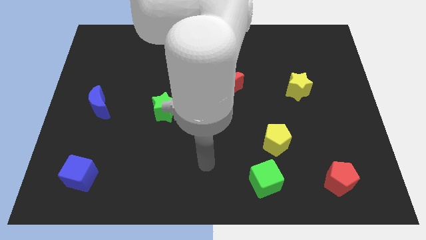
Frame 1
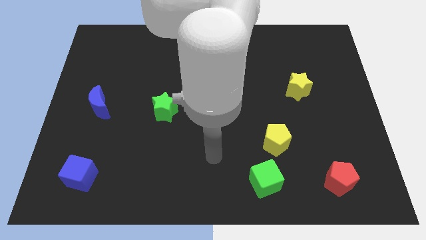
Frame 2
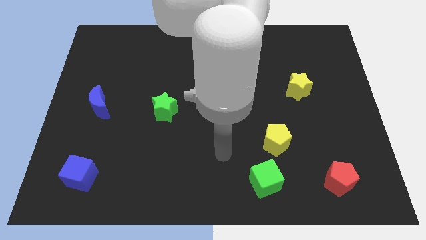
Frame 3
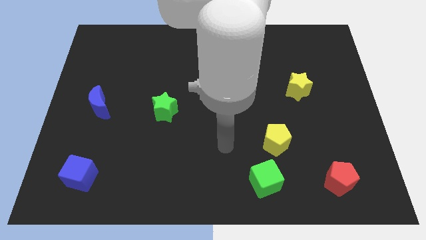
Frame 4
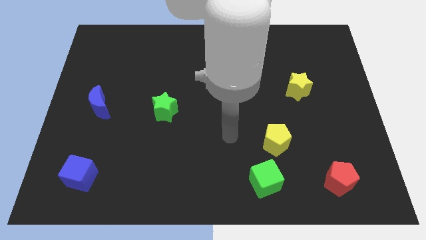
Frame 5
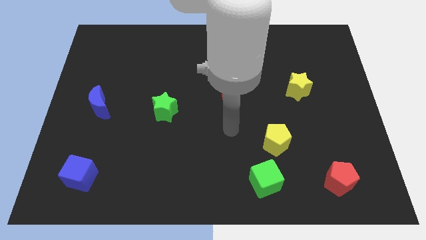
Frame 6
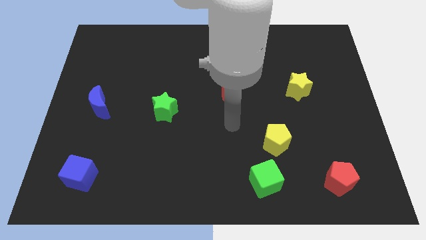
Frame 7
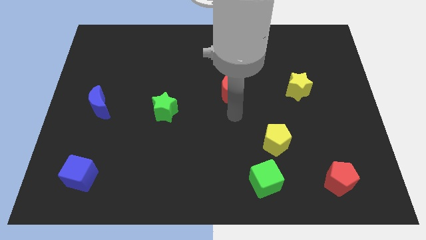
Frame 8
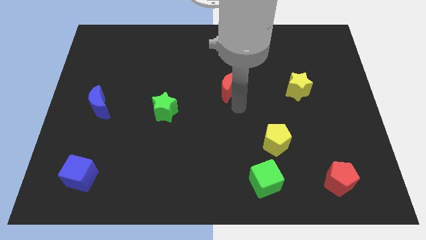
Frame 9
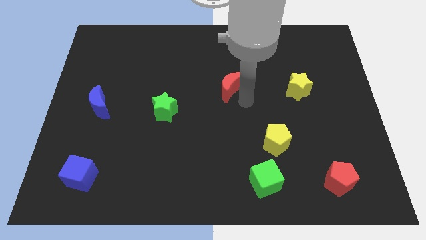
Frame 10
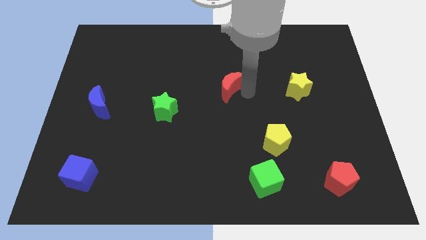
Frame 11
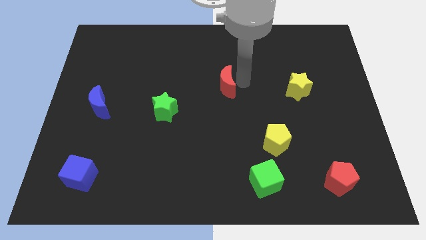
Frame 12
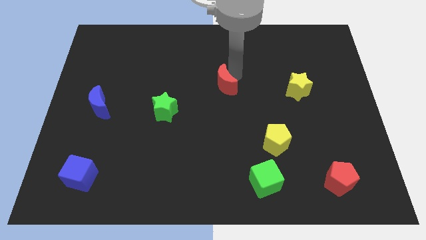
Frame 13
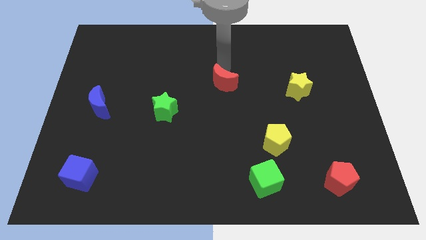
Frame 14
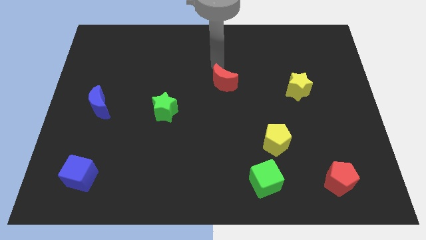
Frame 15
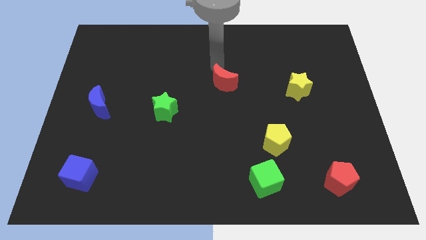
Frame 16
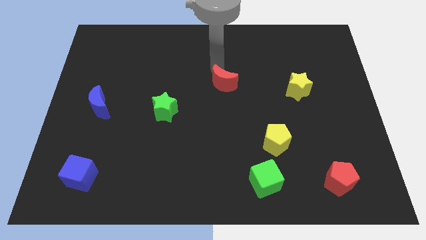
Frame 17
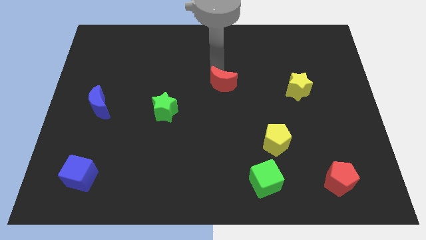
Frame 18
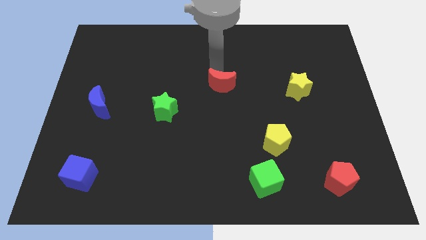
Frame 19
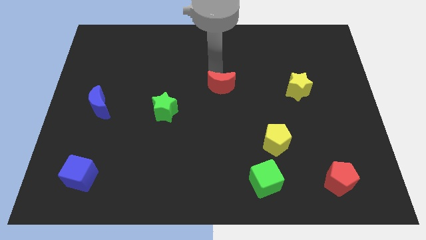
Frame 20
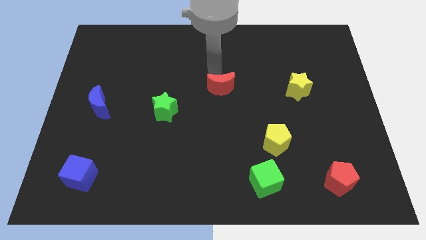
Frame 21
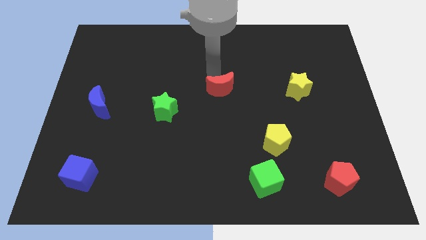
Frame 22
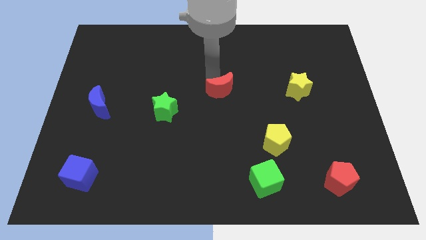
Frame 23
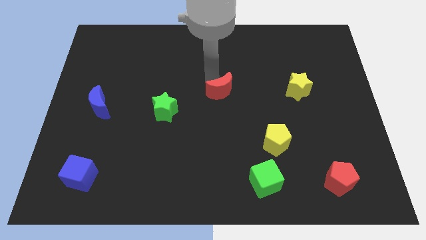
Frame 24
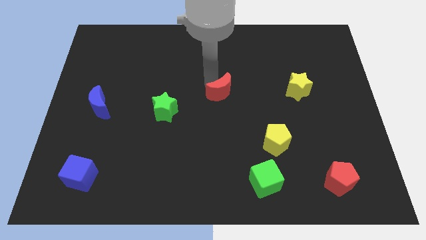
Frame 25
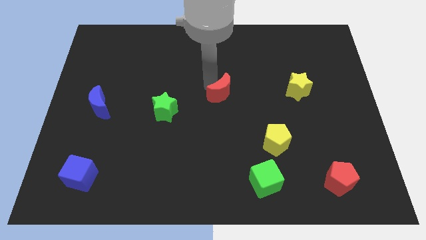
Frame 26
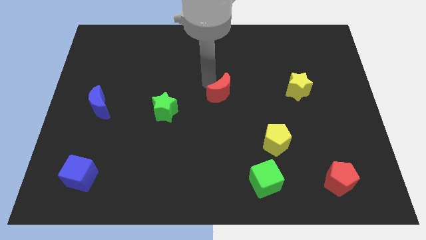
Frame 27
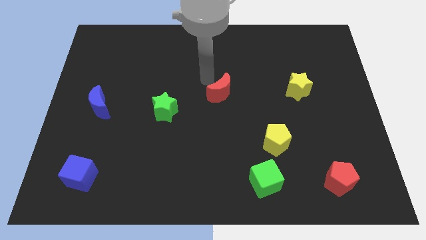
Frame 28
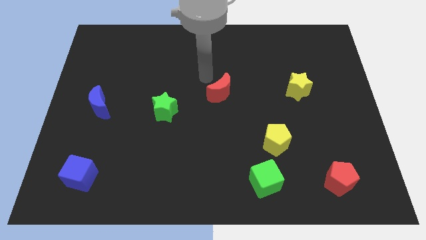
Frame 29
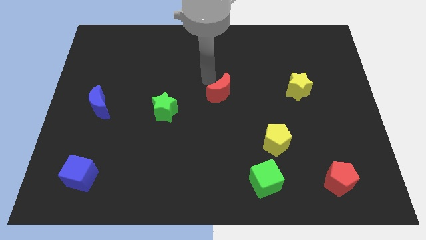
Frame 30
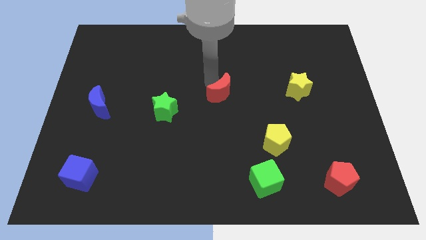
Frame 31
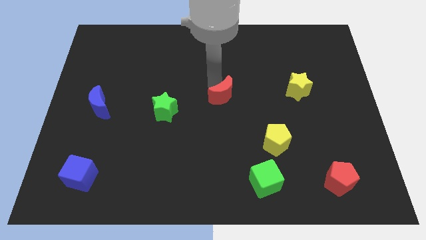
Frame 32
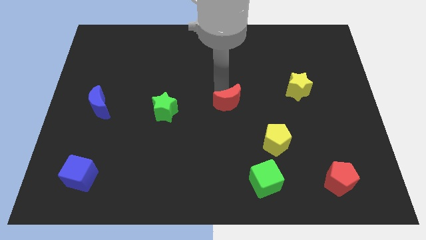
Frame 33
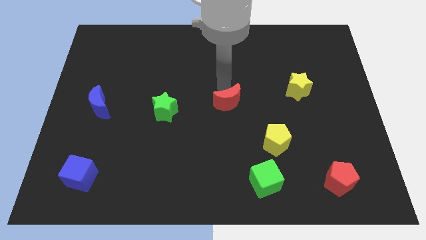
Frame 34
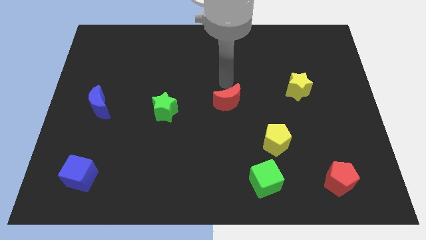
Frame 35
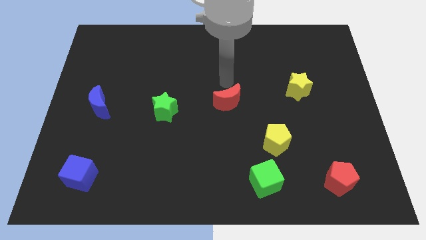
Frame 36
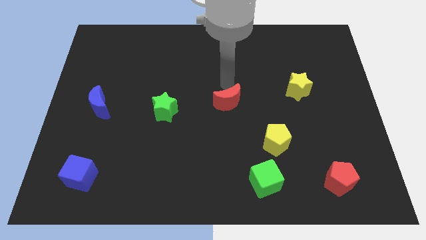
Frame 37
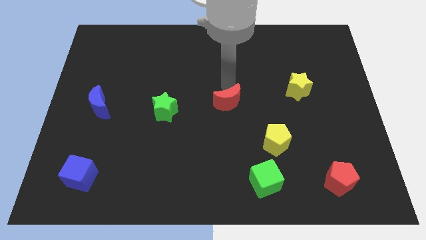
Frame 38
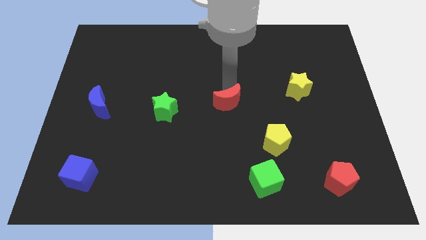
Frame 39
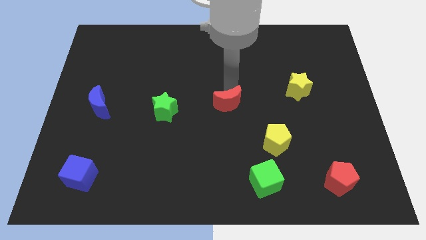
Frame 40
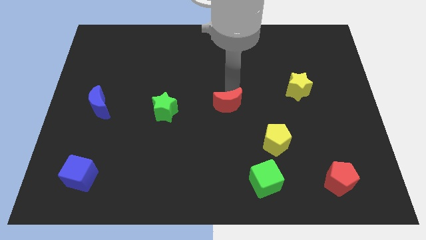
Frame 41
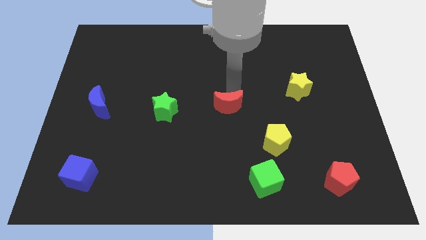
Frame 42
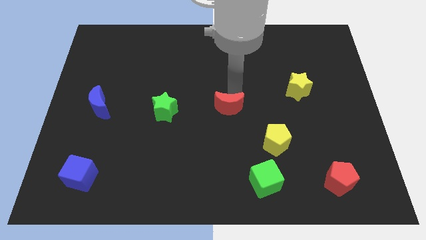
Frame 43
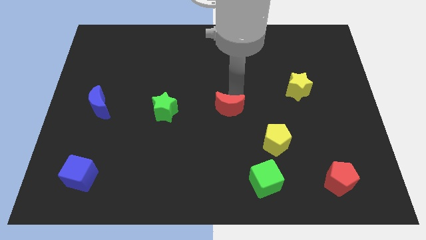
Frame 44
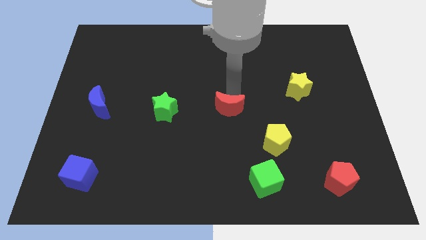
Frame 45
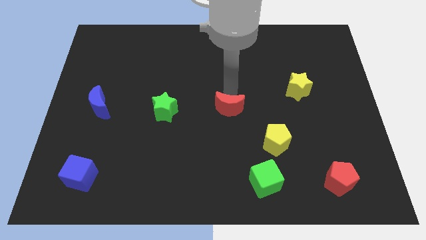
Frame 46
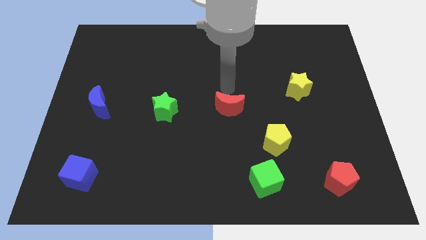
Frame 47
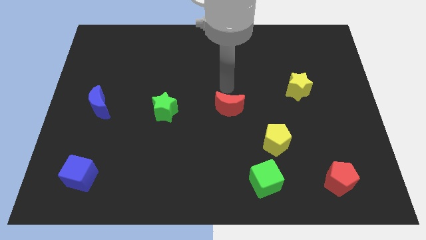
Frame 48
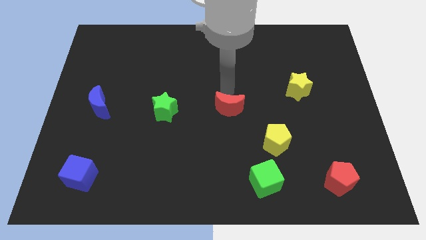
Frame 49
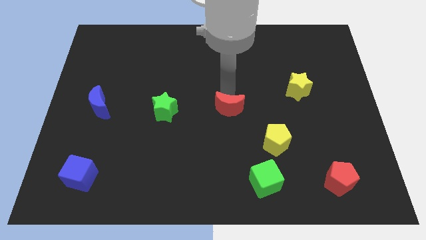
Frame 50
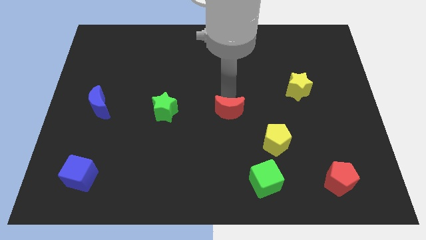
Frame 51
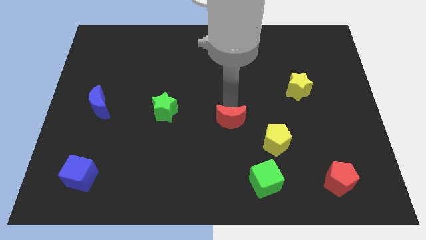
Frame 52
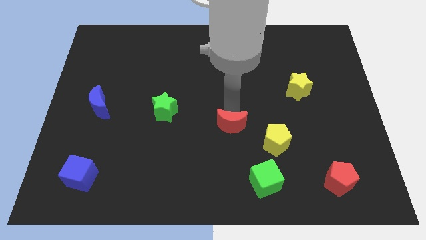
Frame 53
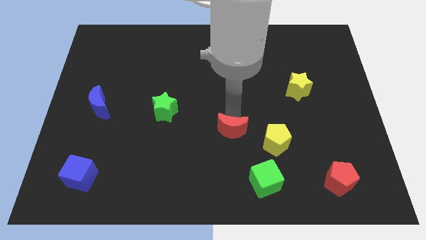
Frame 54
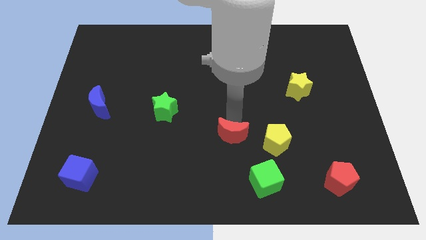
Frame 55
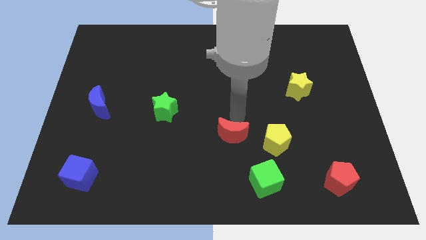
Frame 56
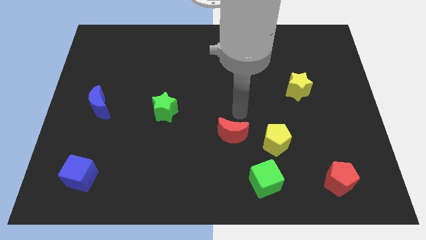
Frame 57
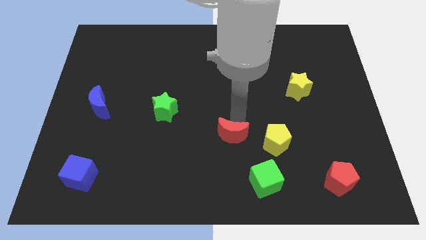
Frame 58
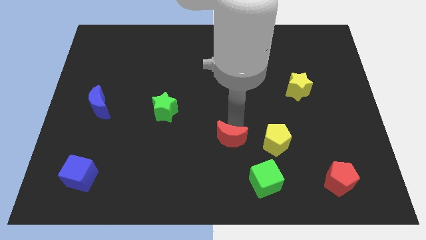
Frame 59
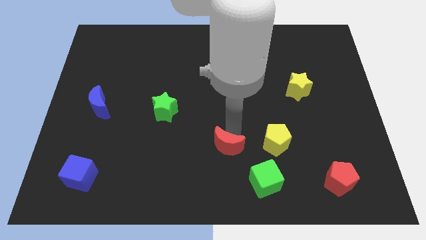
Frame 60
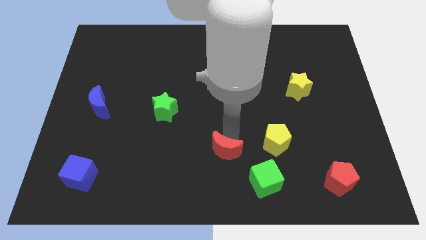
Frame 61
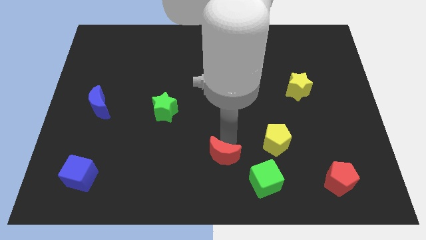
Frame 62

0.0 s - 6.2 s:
move the red moon to the bottom side
